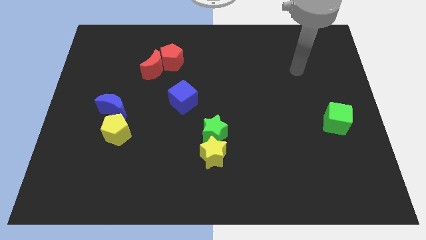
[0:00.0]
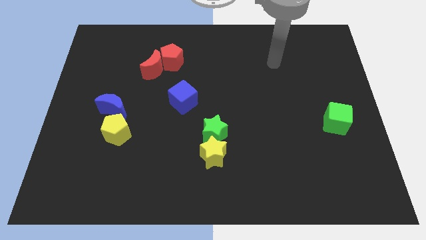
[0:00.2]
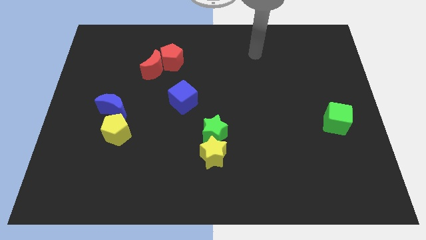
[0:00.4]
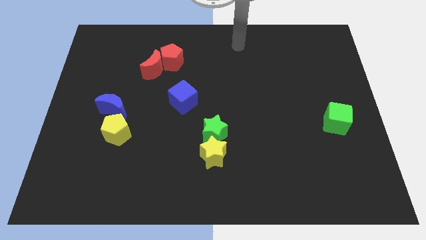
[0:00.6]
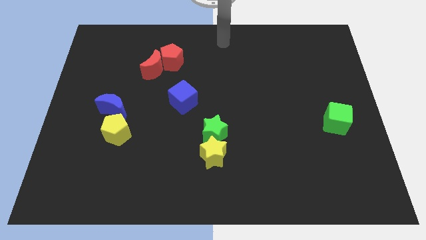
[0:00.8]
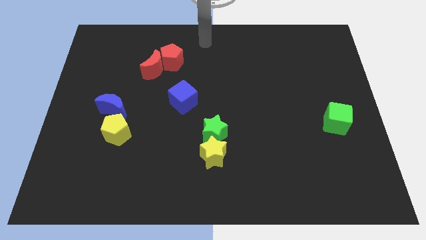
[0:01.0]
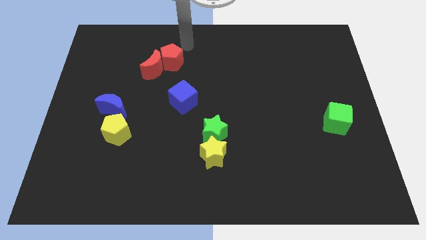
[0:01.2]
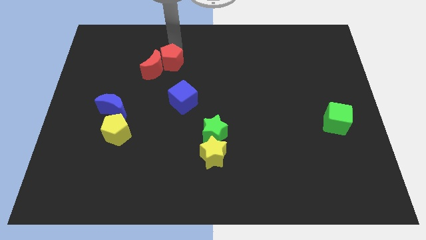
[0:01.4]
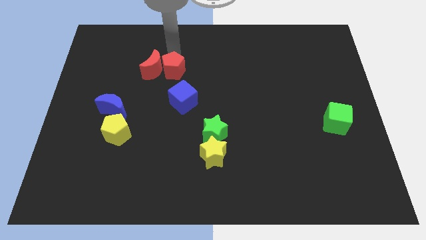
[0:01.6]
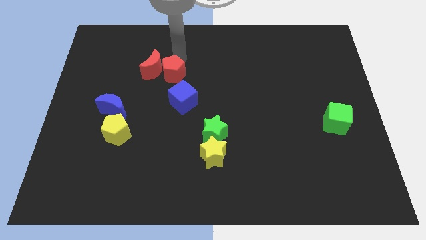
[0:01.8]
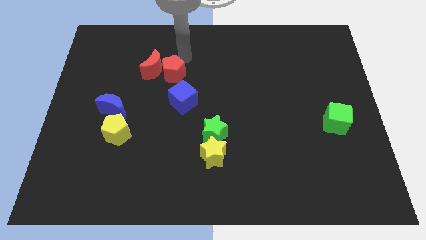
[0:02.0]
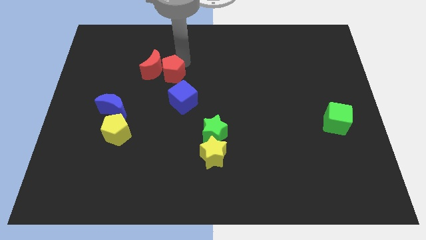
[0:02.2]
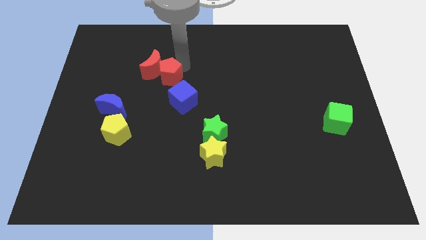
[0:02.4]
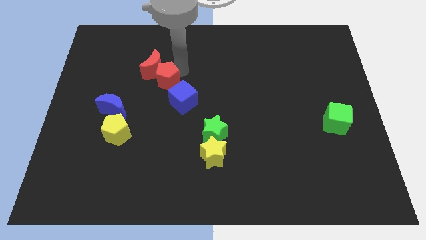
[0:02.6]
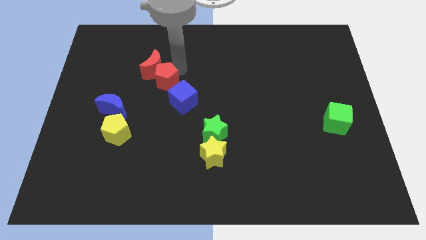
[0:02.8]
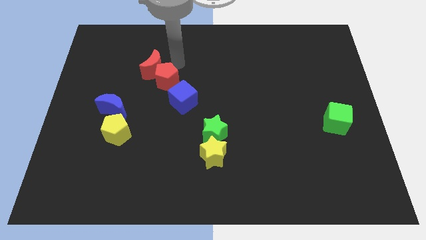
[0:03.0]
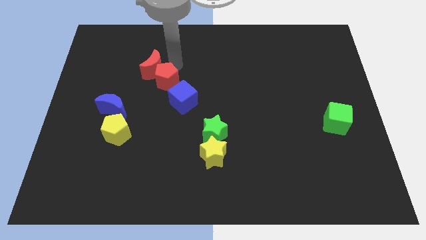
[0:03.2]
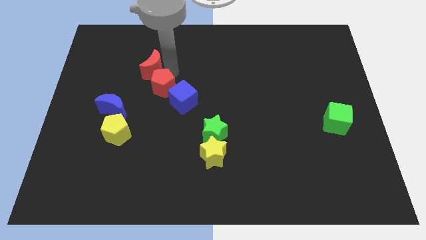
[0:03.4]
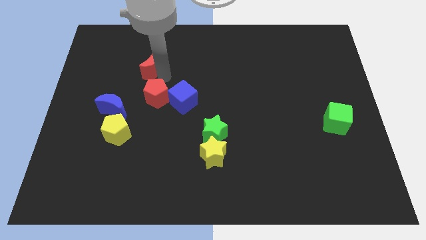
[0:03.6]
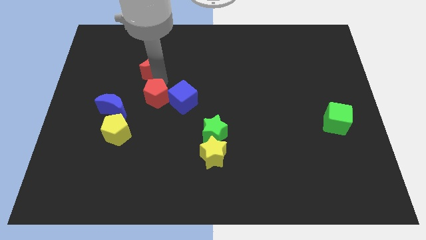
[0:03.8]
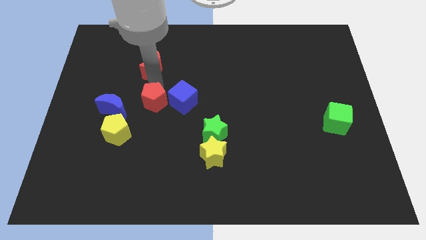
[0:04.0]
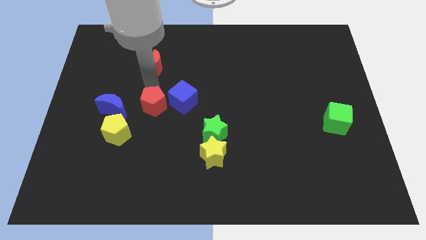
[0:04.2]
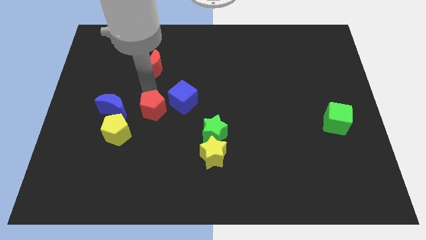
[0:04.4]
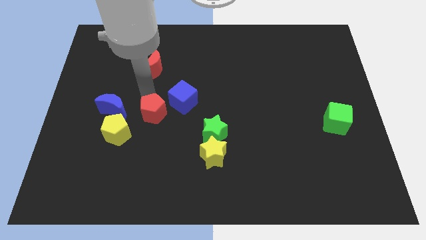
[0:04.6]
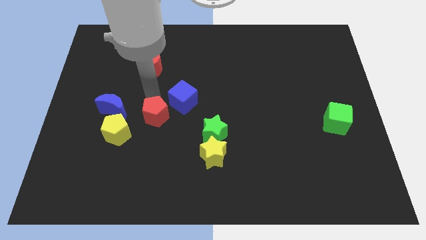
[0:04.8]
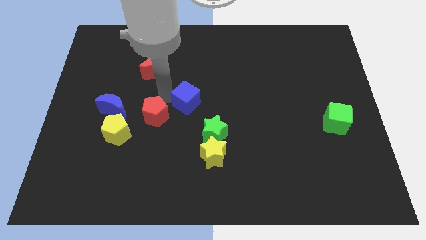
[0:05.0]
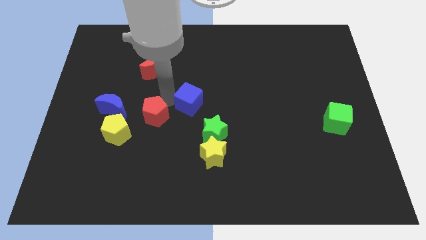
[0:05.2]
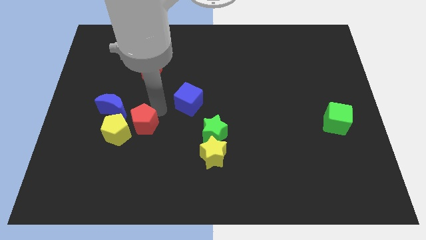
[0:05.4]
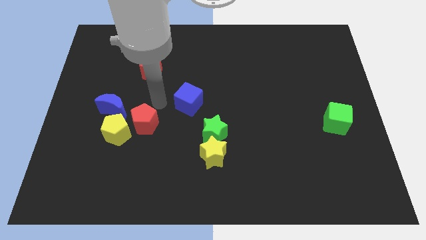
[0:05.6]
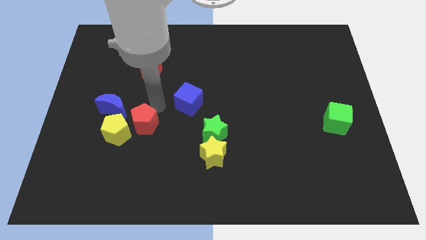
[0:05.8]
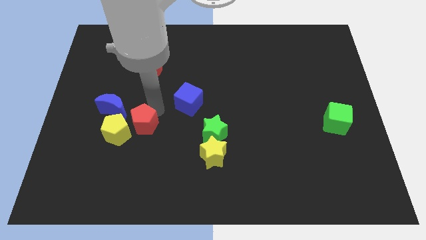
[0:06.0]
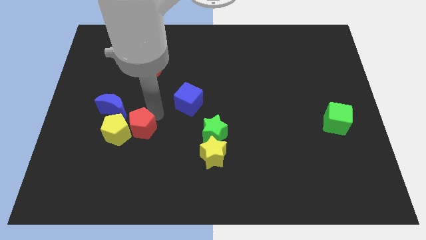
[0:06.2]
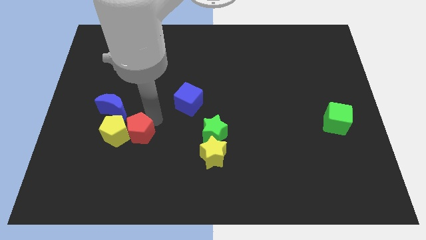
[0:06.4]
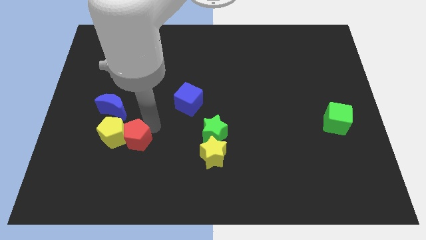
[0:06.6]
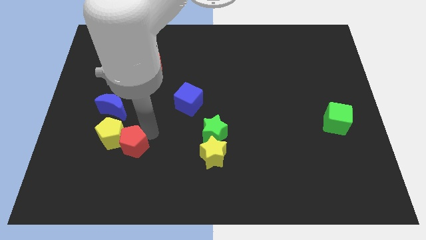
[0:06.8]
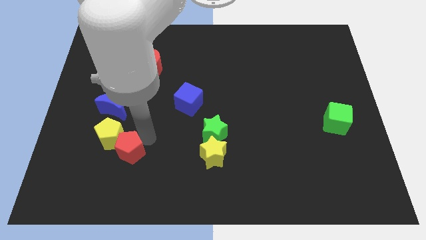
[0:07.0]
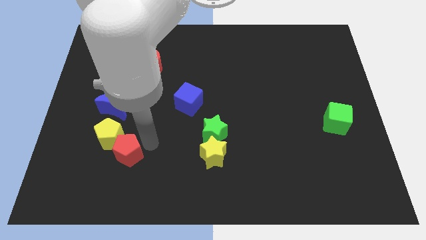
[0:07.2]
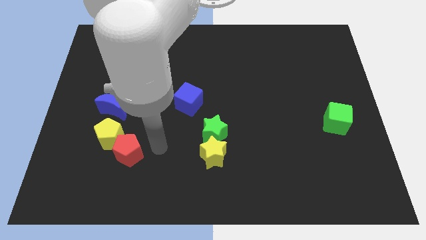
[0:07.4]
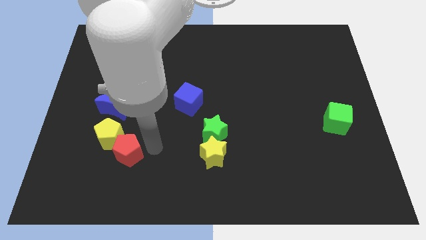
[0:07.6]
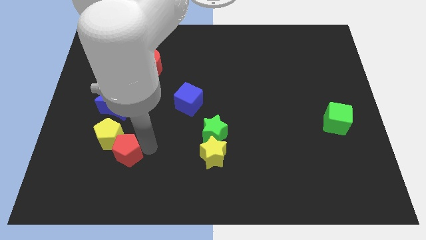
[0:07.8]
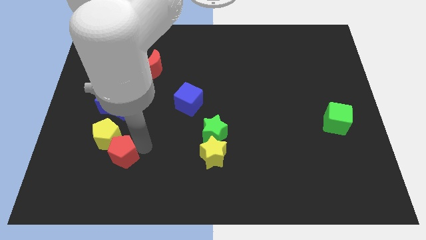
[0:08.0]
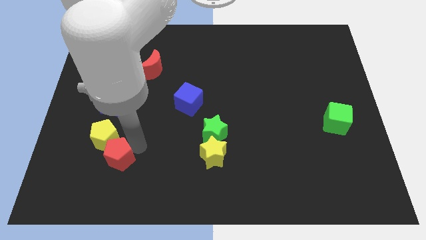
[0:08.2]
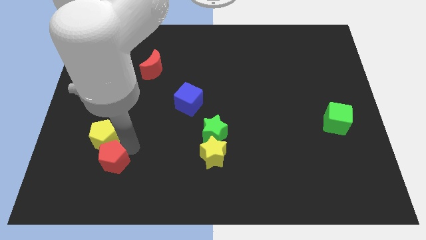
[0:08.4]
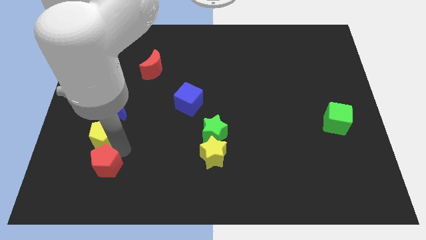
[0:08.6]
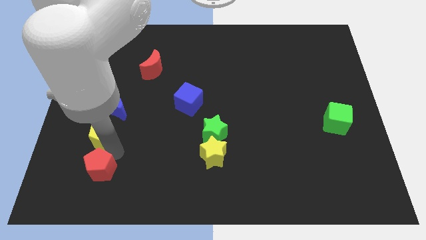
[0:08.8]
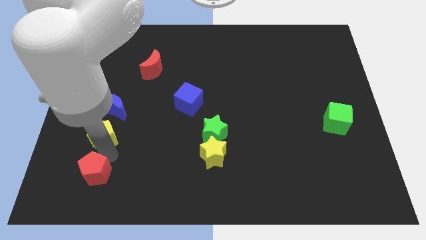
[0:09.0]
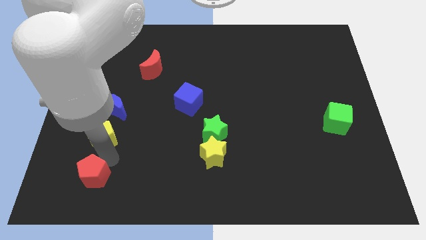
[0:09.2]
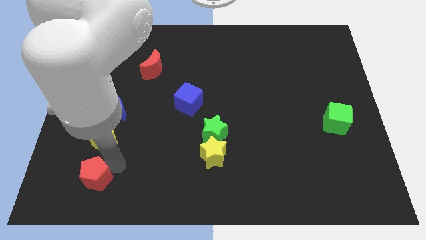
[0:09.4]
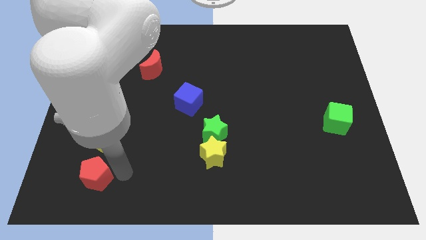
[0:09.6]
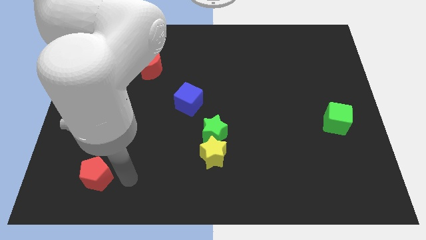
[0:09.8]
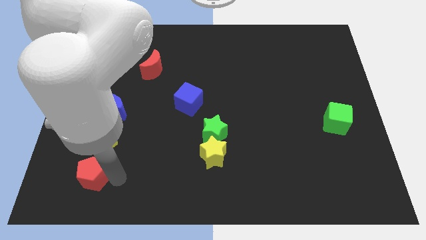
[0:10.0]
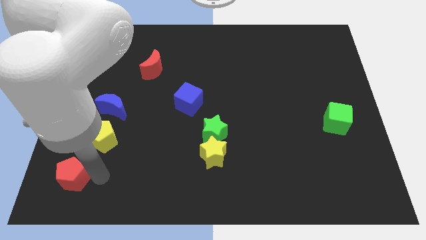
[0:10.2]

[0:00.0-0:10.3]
slide the red pentagon to the bottom left corner

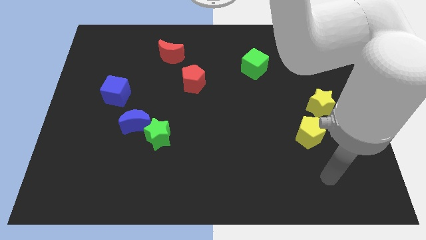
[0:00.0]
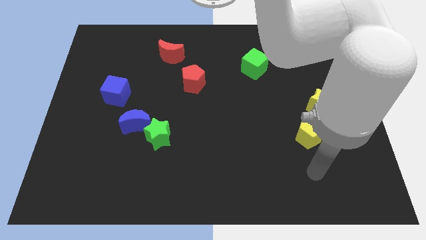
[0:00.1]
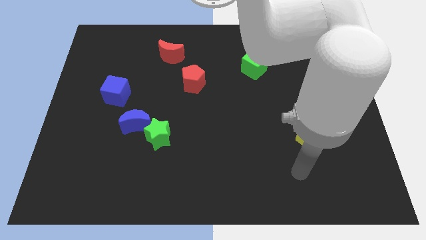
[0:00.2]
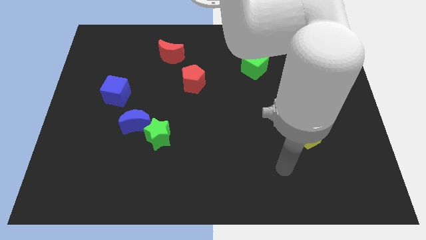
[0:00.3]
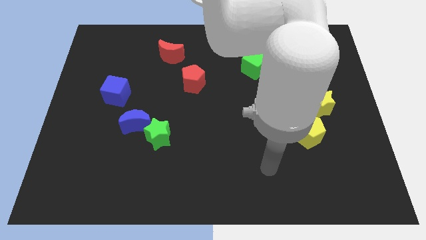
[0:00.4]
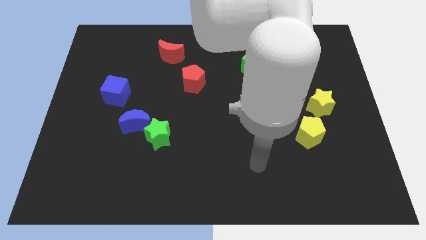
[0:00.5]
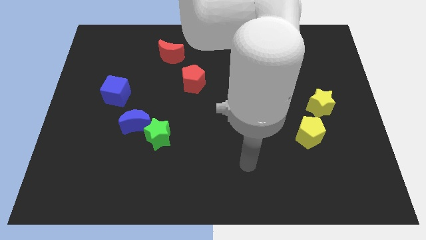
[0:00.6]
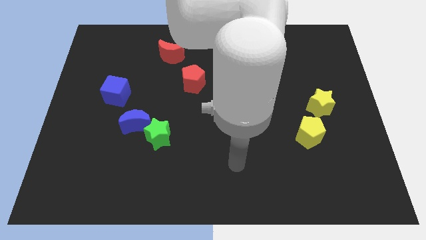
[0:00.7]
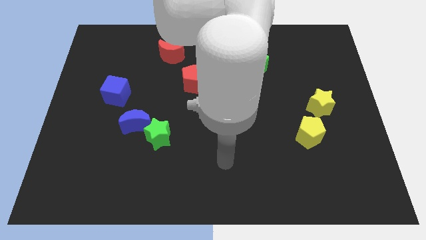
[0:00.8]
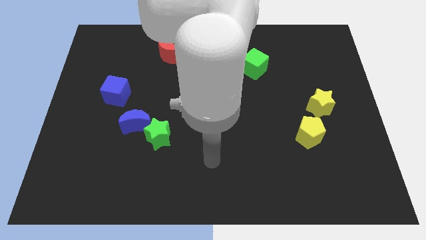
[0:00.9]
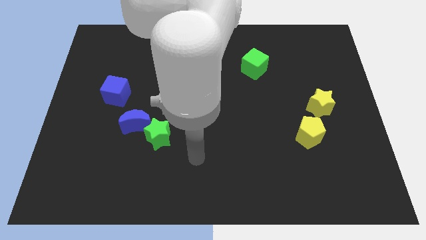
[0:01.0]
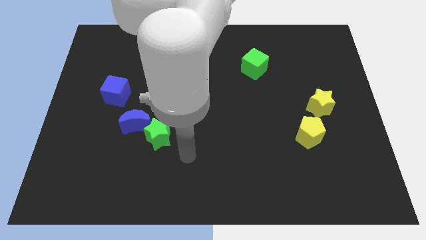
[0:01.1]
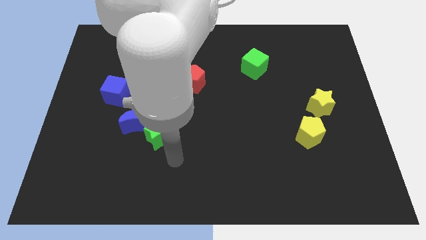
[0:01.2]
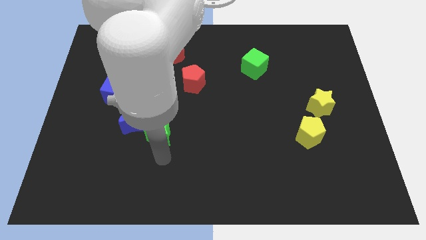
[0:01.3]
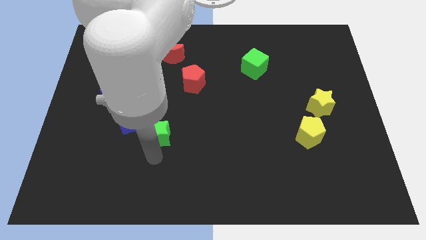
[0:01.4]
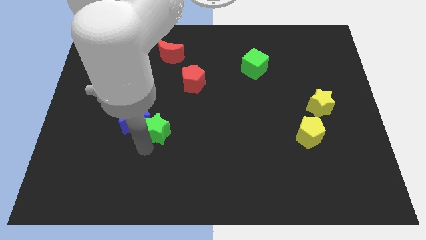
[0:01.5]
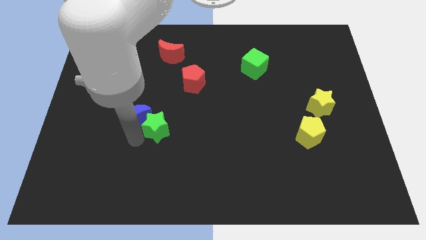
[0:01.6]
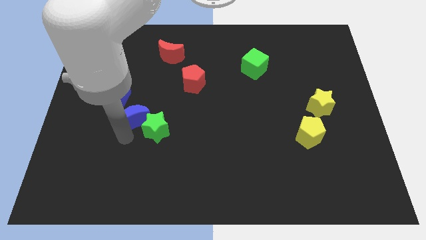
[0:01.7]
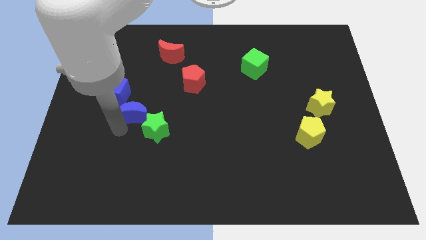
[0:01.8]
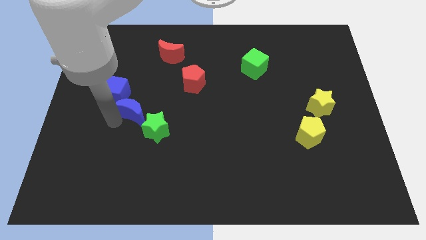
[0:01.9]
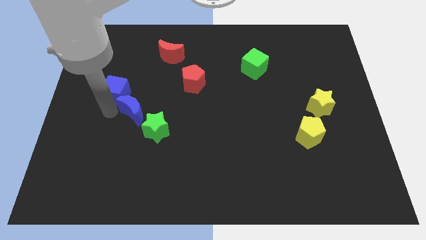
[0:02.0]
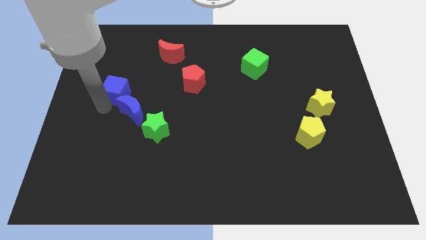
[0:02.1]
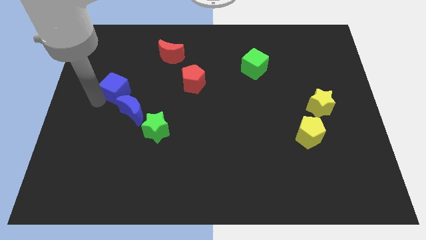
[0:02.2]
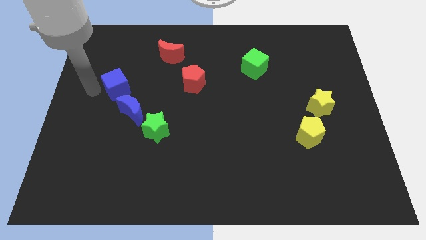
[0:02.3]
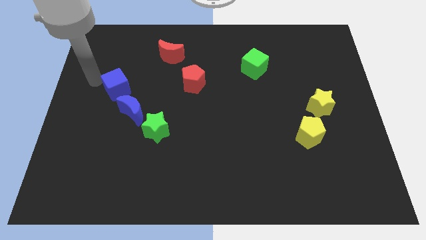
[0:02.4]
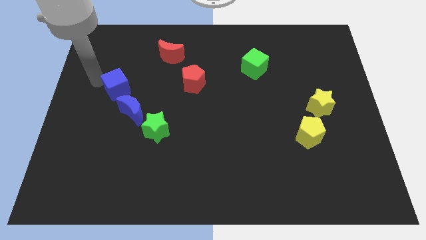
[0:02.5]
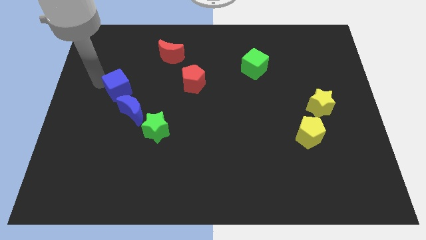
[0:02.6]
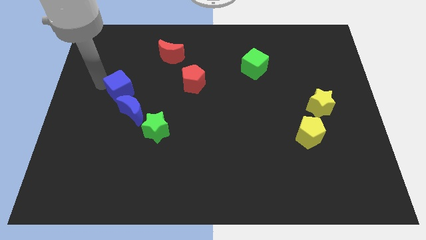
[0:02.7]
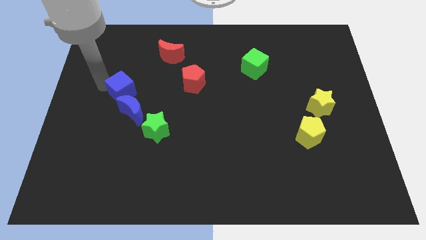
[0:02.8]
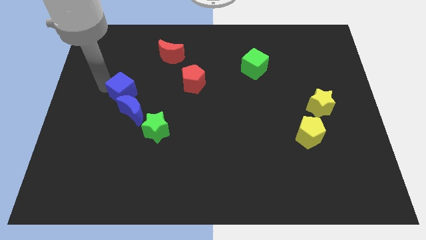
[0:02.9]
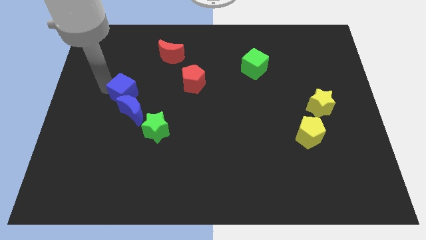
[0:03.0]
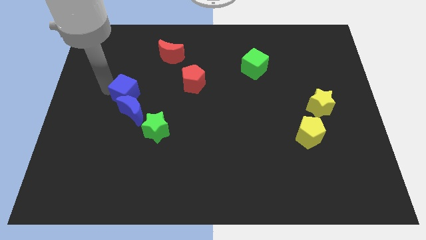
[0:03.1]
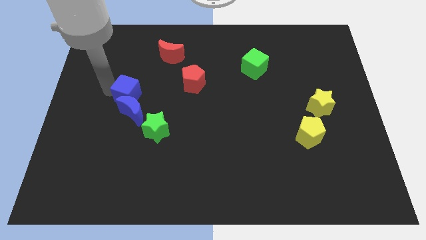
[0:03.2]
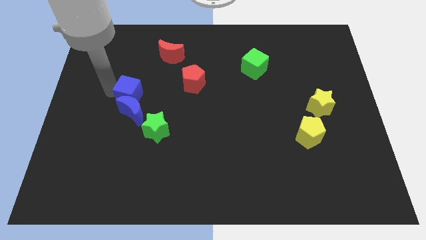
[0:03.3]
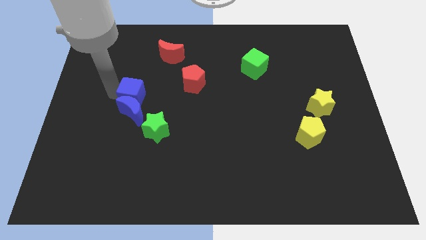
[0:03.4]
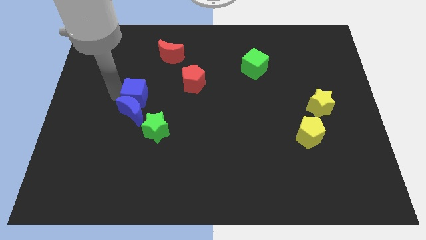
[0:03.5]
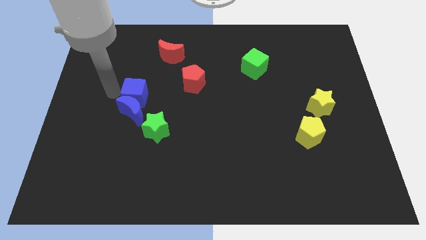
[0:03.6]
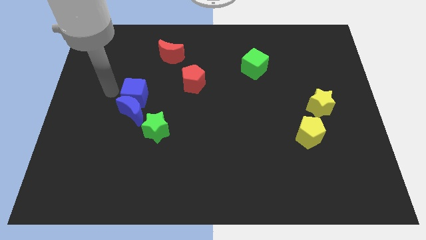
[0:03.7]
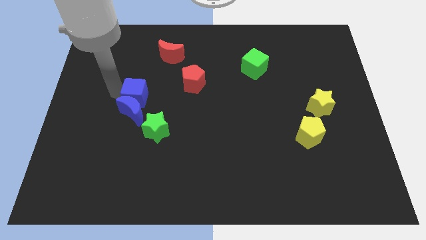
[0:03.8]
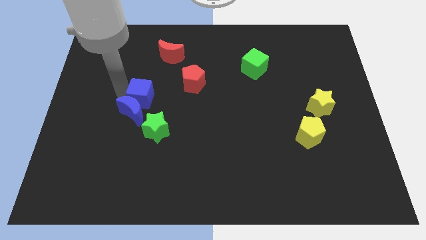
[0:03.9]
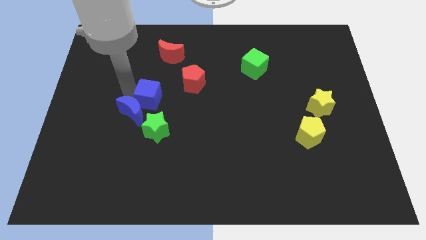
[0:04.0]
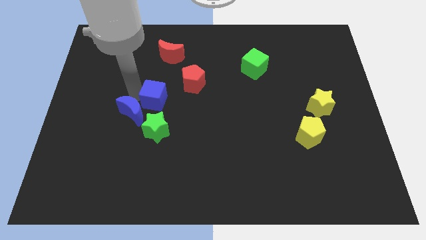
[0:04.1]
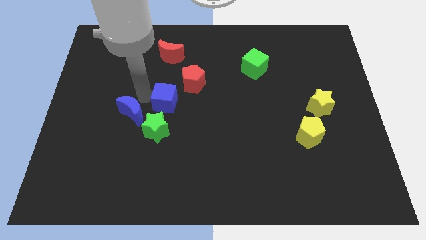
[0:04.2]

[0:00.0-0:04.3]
push the blue cube to the middle
